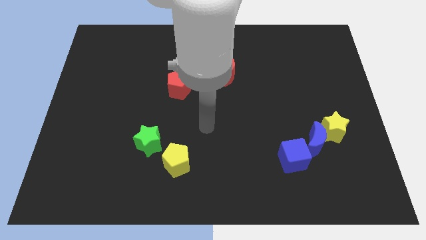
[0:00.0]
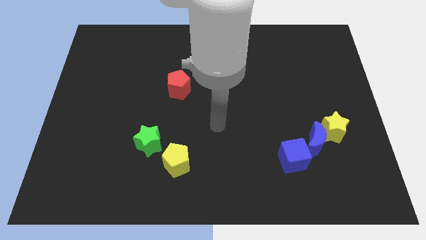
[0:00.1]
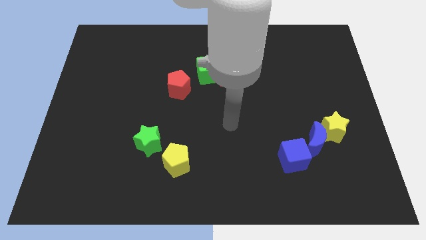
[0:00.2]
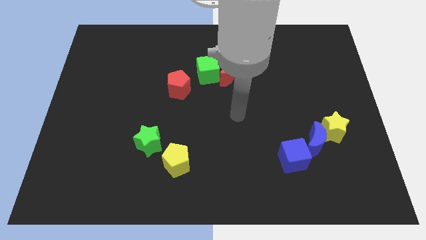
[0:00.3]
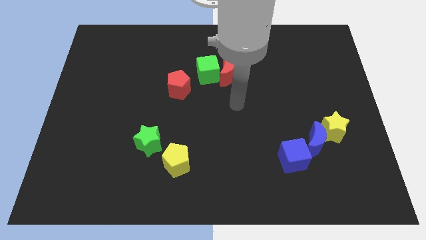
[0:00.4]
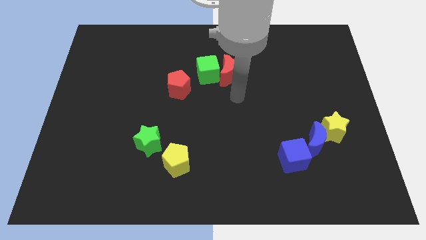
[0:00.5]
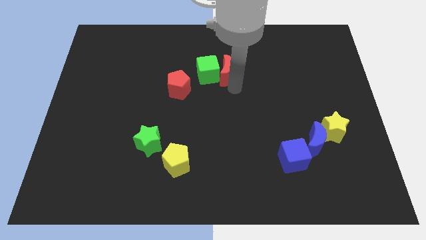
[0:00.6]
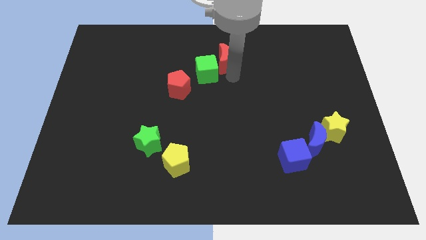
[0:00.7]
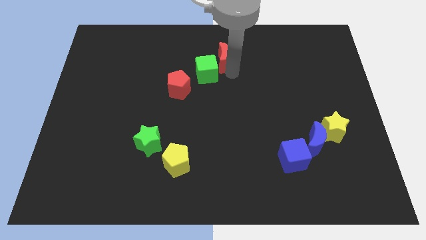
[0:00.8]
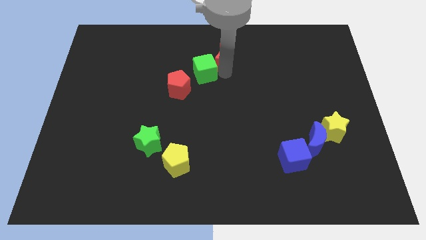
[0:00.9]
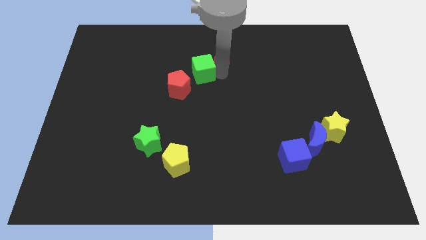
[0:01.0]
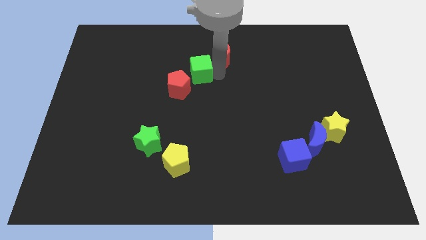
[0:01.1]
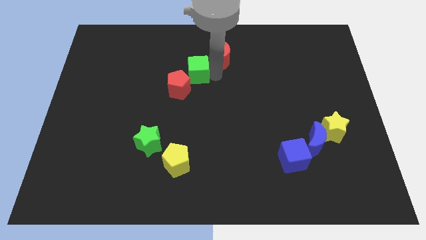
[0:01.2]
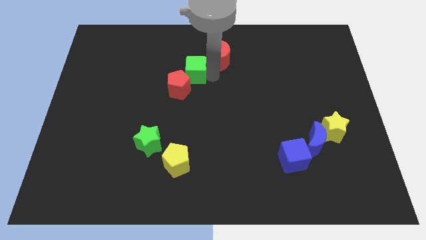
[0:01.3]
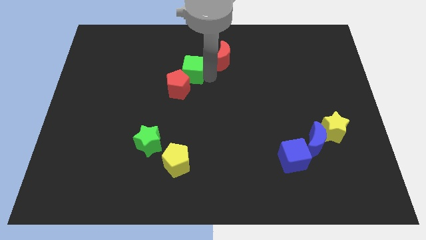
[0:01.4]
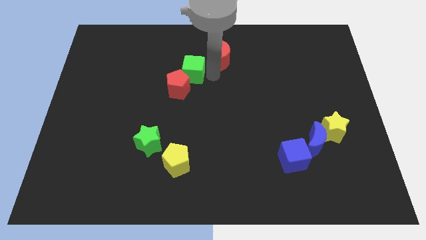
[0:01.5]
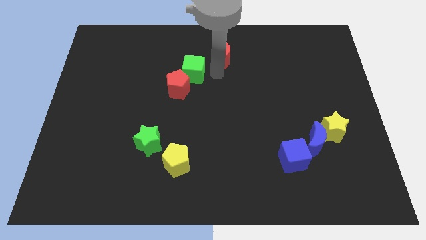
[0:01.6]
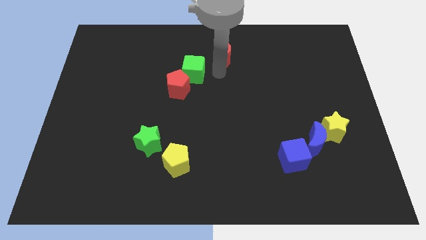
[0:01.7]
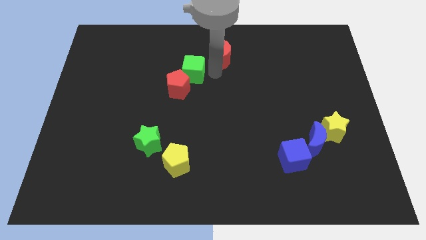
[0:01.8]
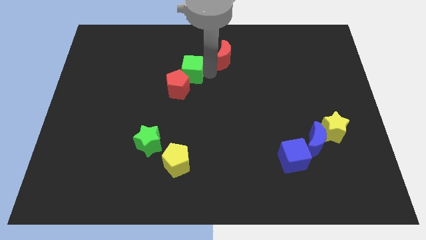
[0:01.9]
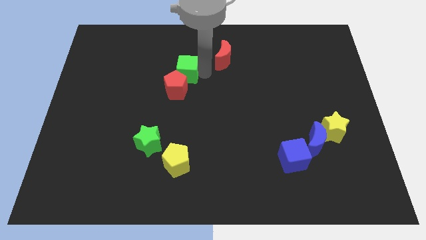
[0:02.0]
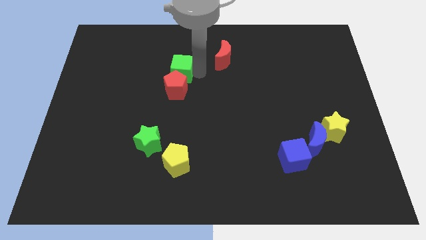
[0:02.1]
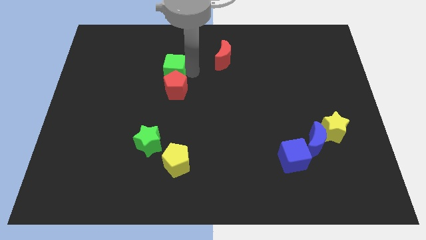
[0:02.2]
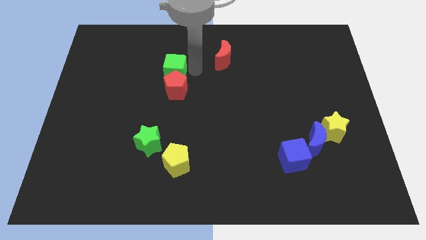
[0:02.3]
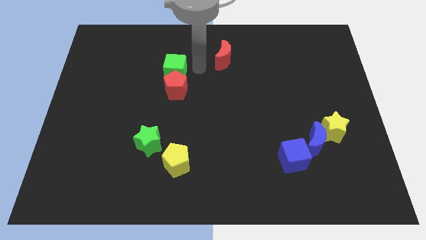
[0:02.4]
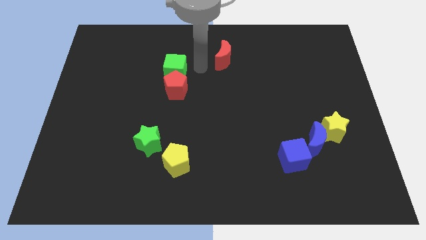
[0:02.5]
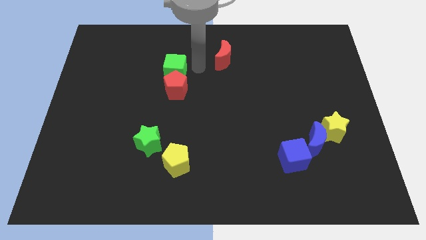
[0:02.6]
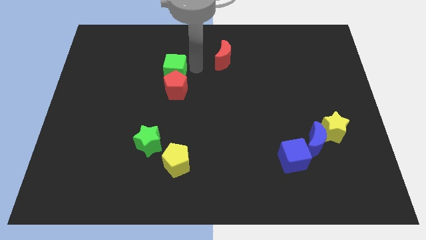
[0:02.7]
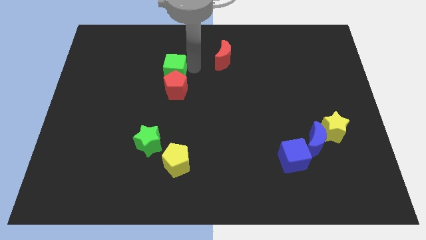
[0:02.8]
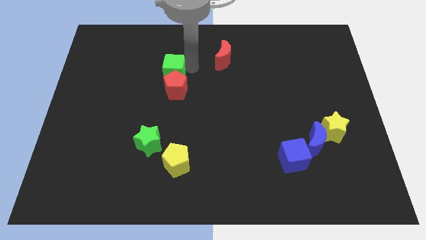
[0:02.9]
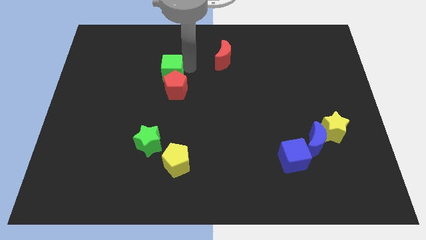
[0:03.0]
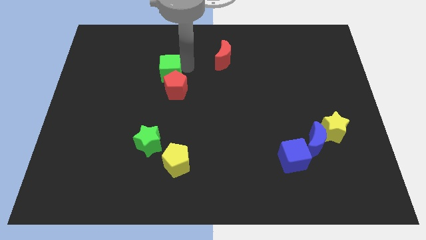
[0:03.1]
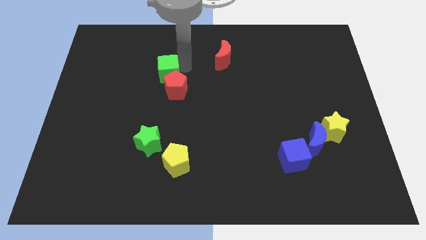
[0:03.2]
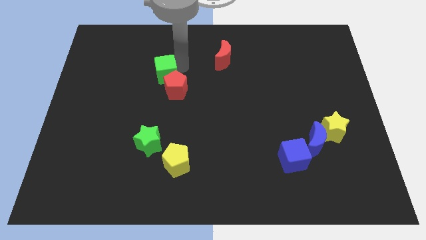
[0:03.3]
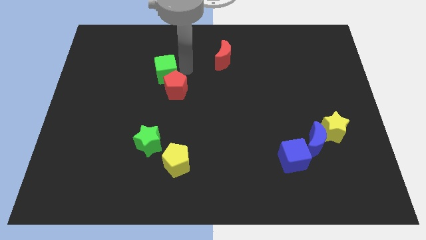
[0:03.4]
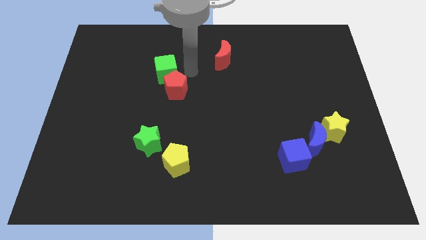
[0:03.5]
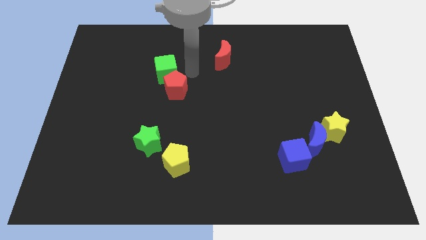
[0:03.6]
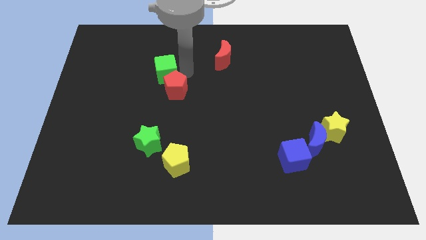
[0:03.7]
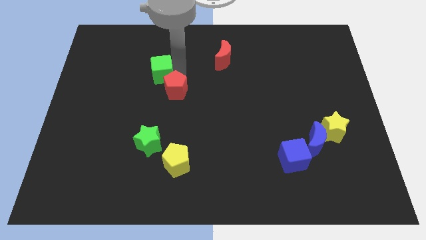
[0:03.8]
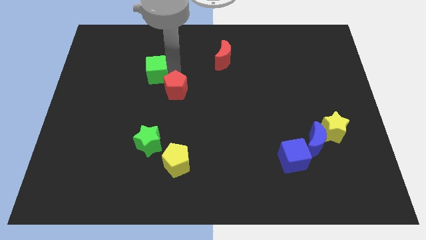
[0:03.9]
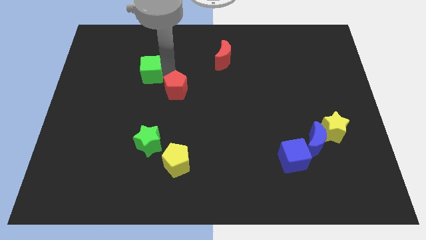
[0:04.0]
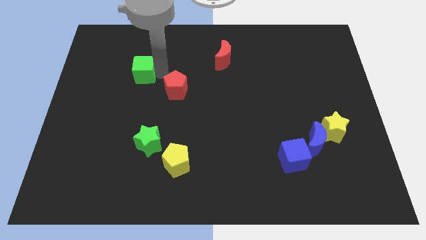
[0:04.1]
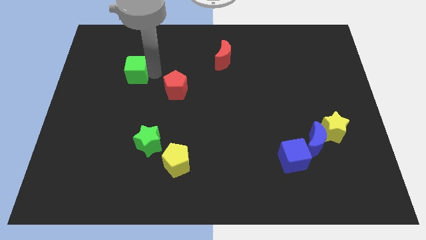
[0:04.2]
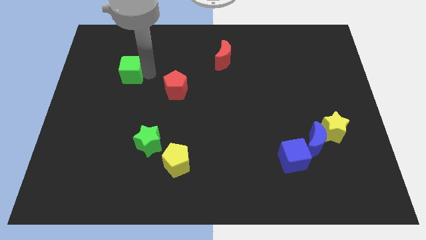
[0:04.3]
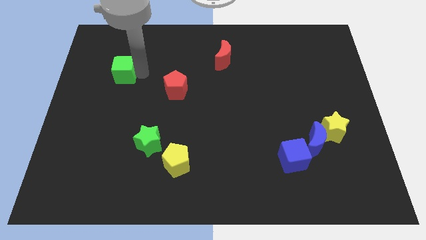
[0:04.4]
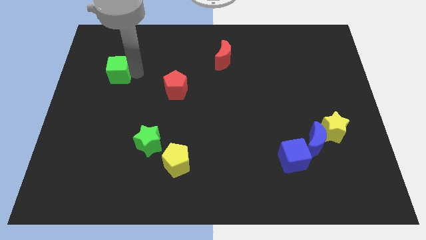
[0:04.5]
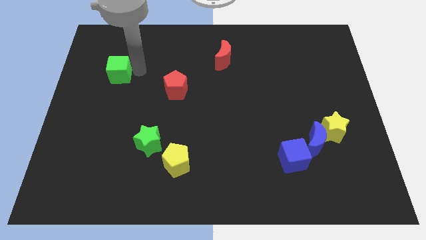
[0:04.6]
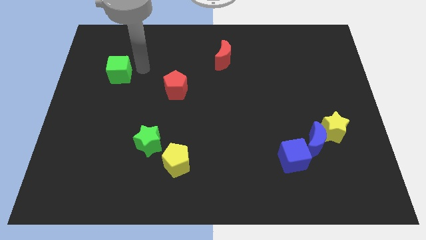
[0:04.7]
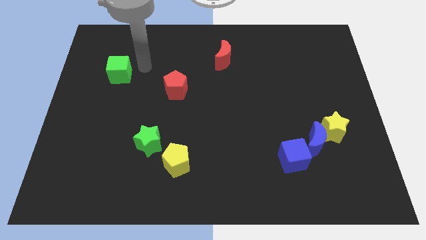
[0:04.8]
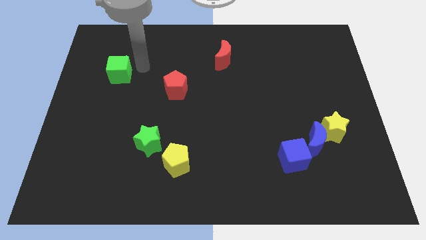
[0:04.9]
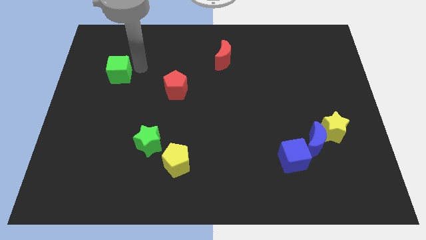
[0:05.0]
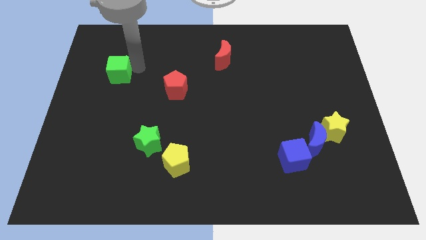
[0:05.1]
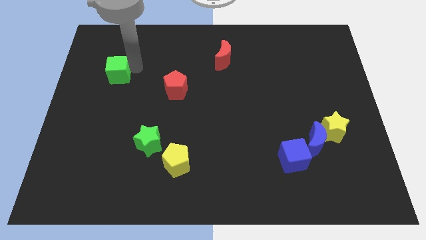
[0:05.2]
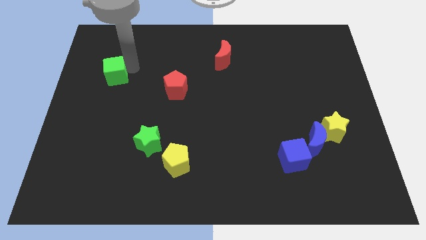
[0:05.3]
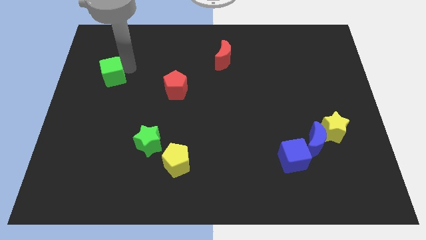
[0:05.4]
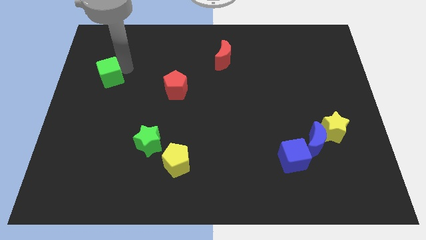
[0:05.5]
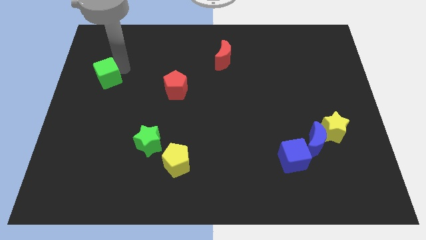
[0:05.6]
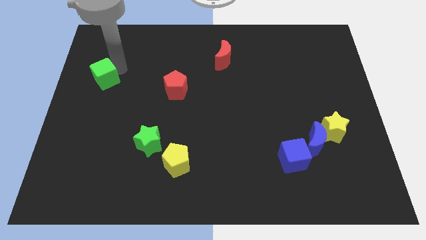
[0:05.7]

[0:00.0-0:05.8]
slide the green cube to the left side
